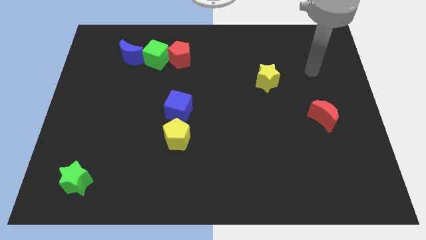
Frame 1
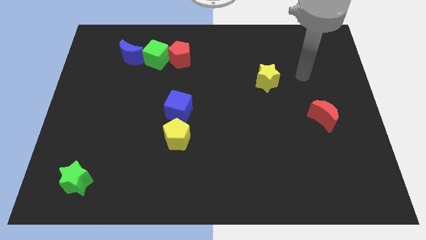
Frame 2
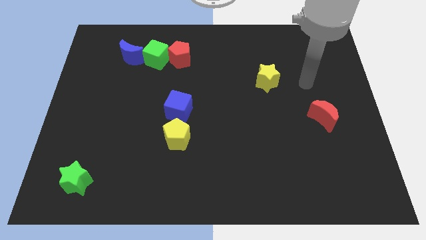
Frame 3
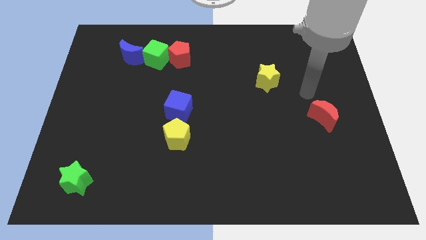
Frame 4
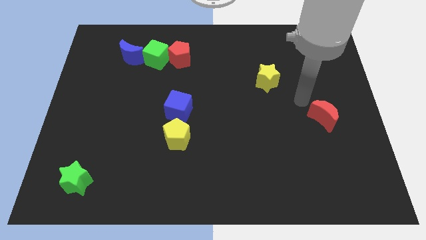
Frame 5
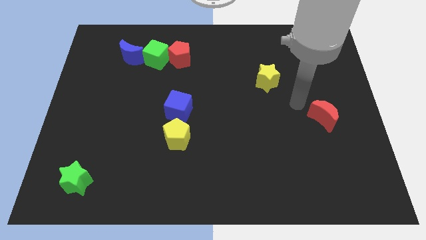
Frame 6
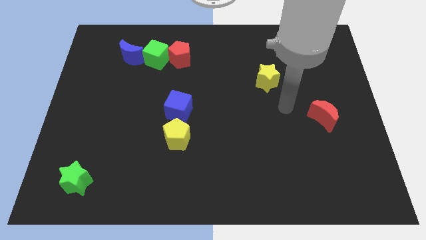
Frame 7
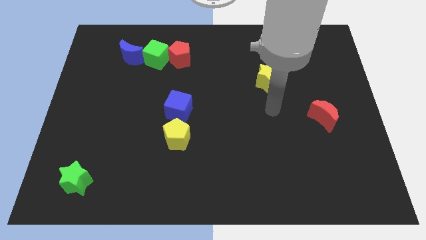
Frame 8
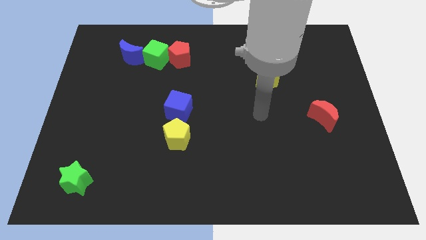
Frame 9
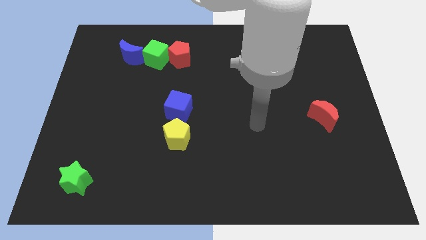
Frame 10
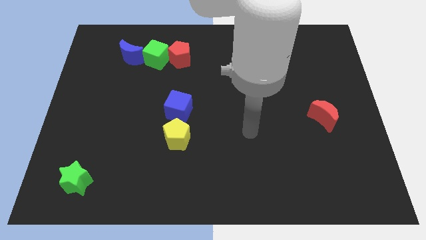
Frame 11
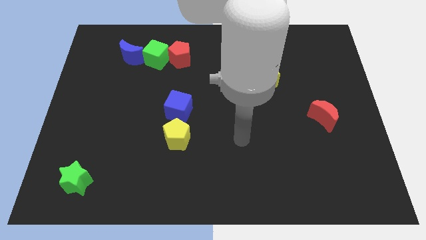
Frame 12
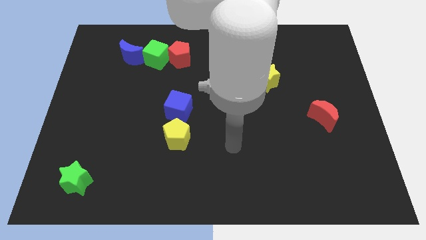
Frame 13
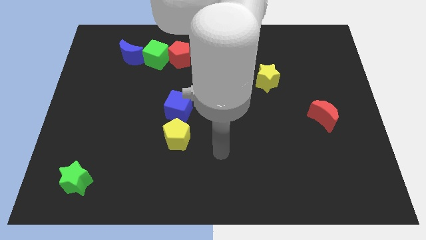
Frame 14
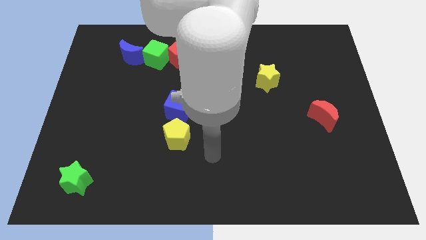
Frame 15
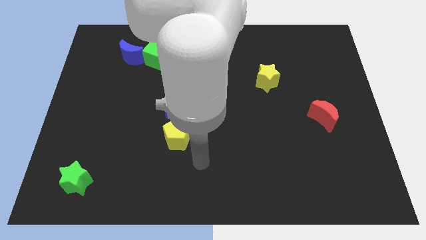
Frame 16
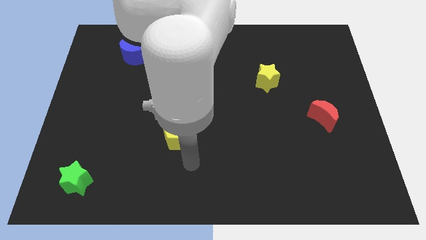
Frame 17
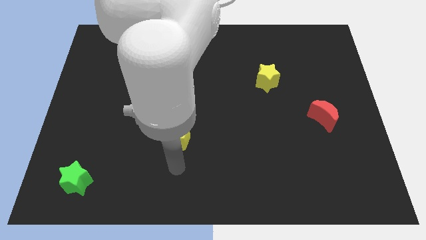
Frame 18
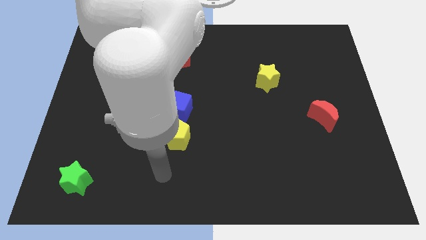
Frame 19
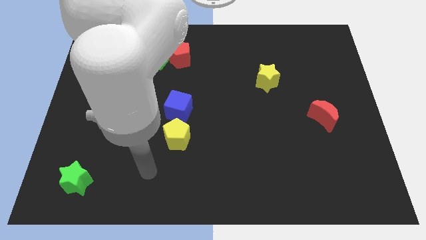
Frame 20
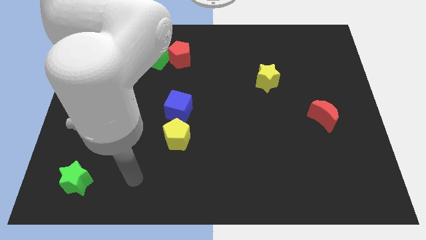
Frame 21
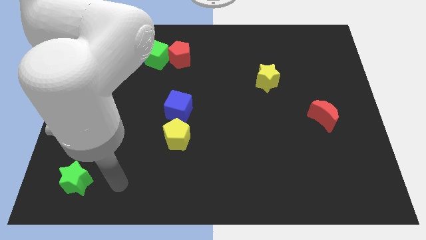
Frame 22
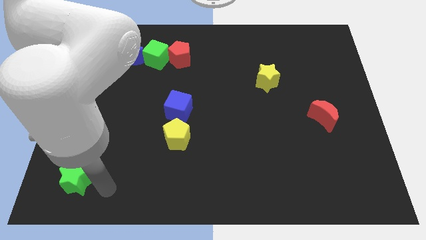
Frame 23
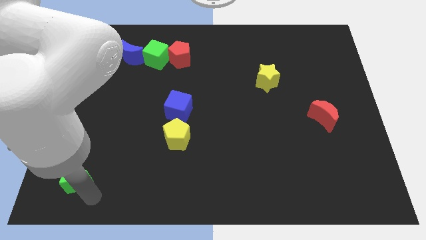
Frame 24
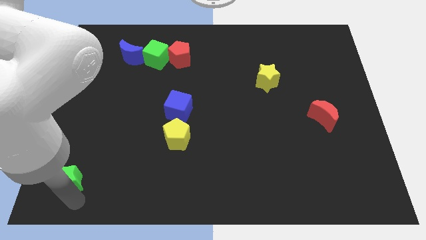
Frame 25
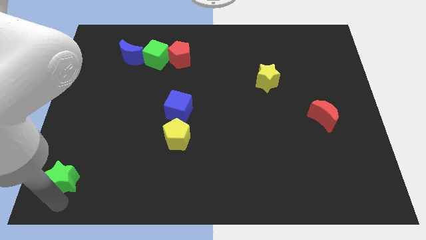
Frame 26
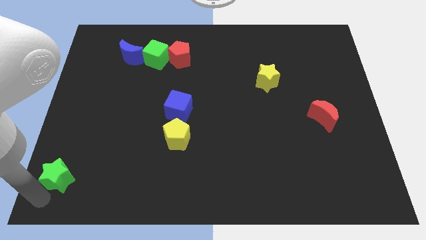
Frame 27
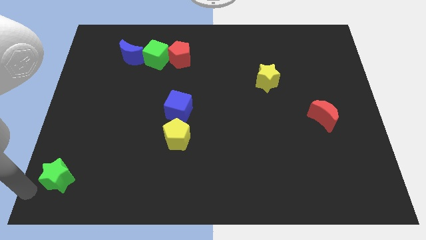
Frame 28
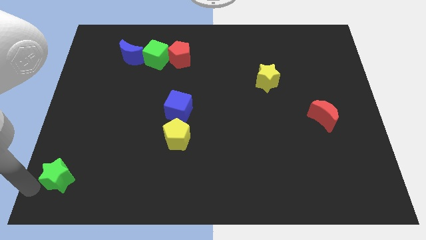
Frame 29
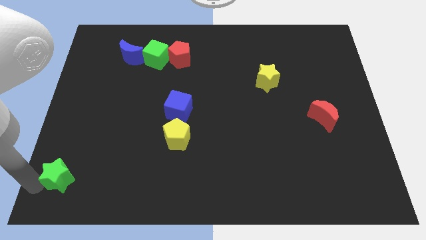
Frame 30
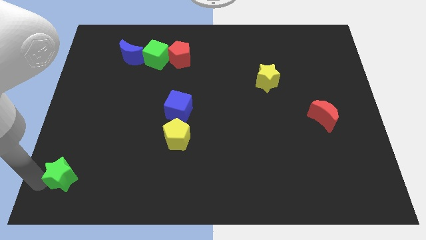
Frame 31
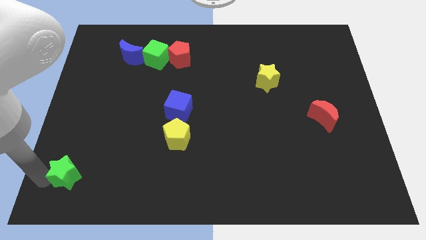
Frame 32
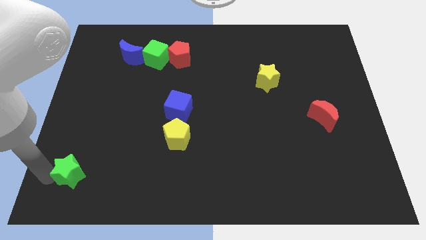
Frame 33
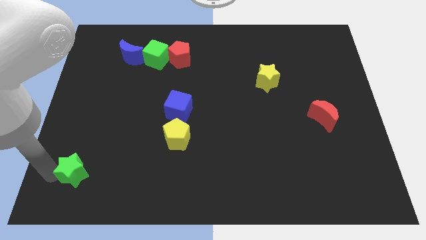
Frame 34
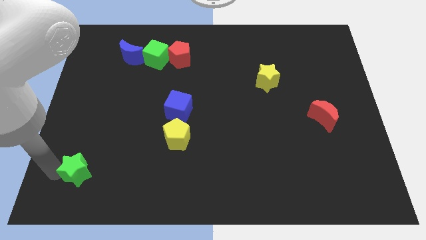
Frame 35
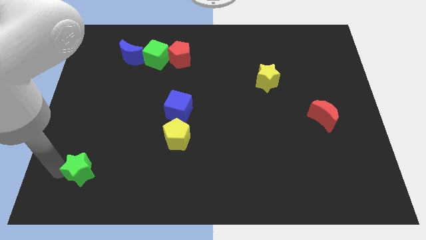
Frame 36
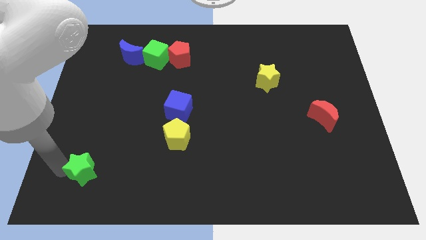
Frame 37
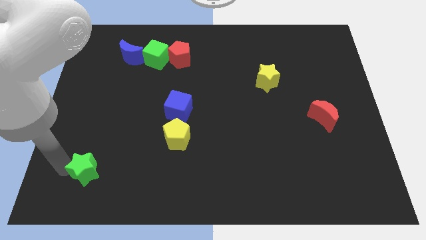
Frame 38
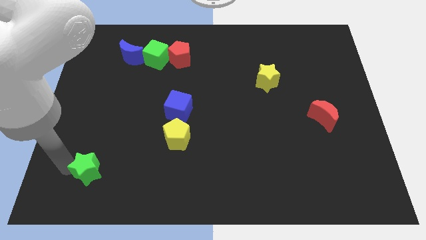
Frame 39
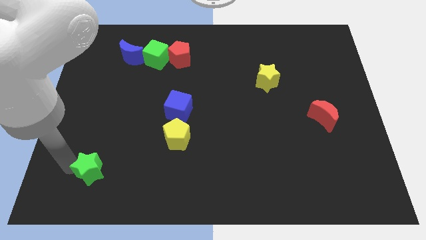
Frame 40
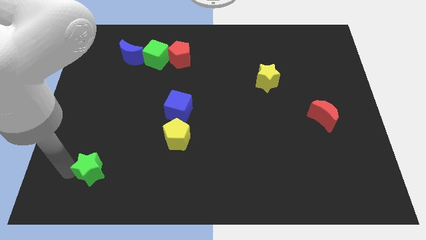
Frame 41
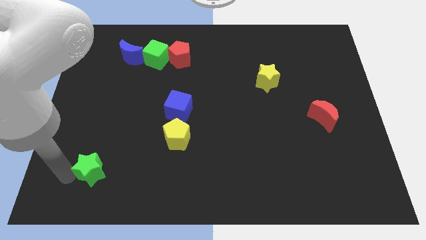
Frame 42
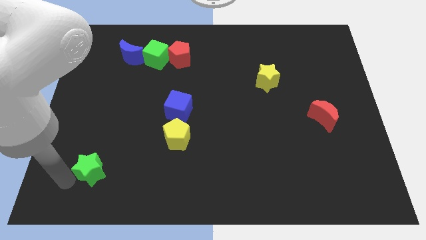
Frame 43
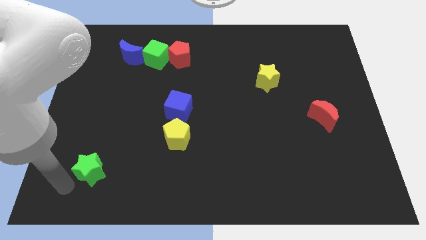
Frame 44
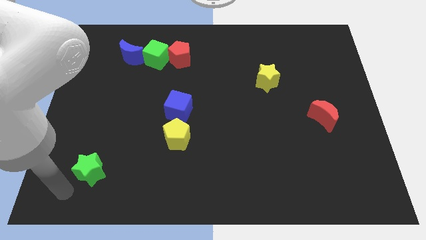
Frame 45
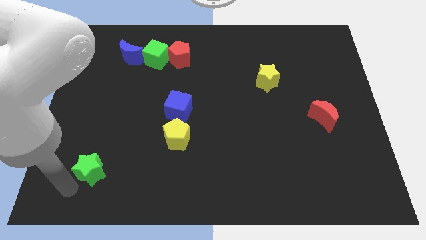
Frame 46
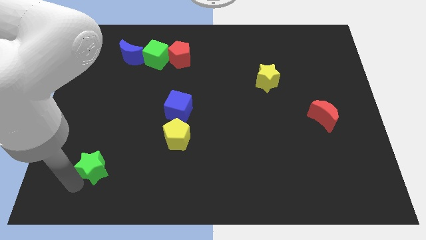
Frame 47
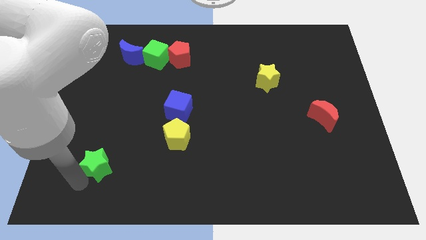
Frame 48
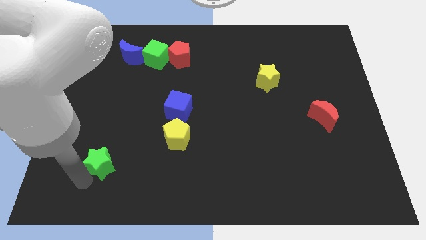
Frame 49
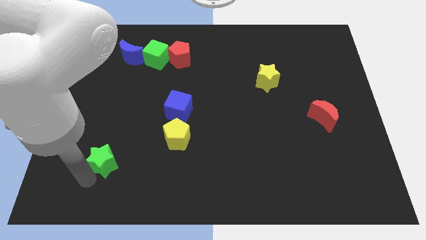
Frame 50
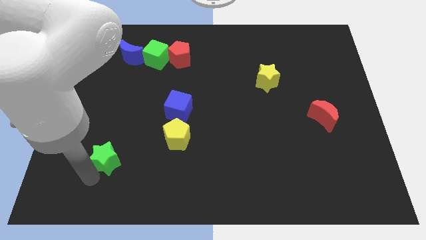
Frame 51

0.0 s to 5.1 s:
slide the green star a bit up and to the right

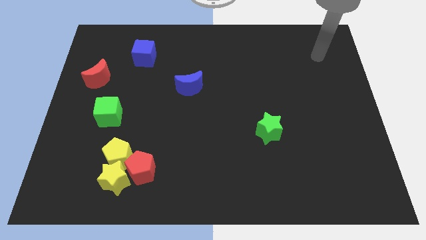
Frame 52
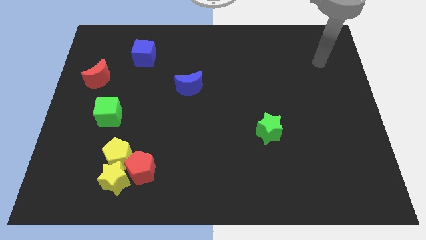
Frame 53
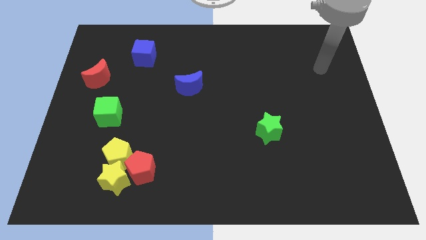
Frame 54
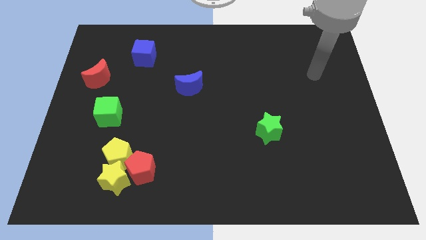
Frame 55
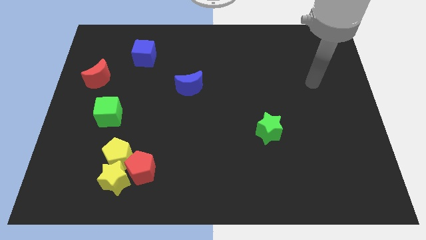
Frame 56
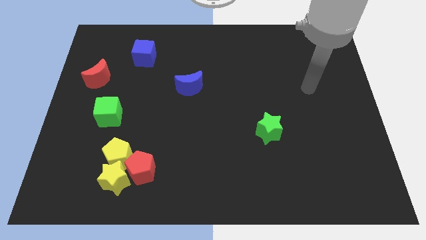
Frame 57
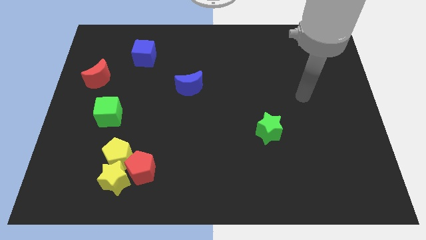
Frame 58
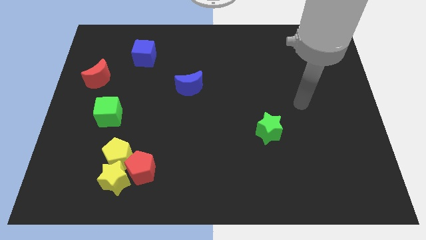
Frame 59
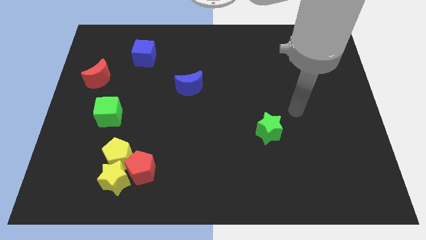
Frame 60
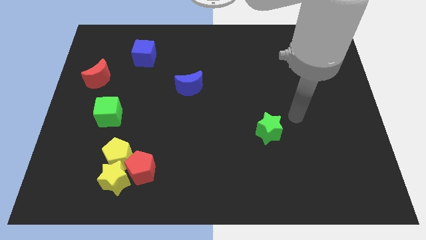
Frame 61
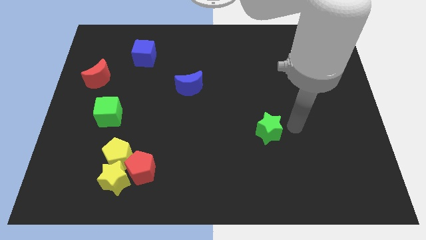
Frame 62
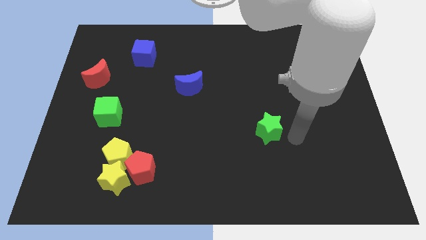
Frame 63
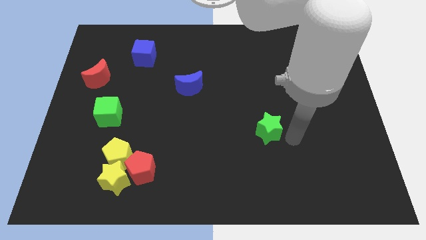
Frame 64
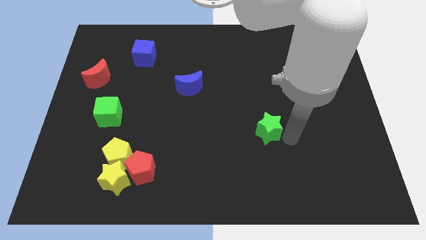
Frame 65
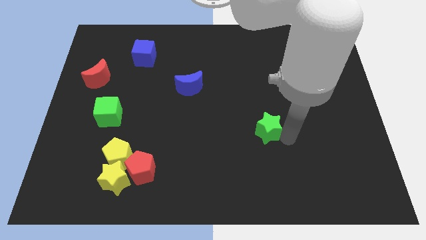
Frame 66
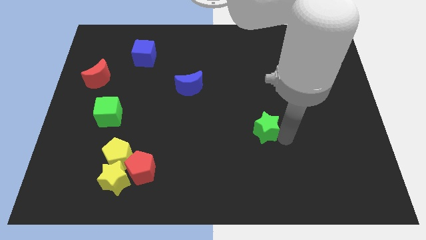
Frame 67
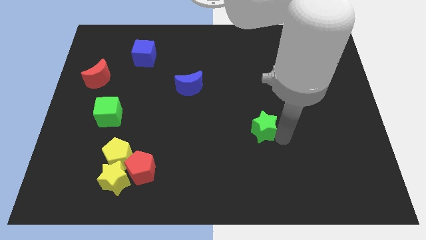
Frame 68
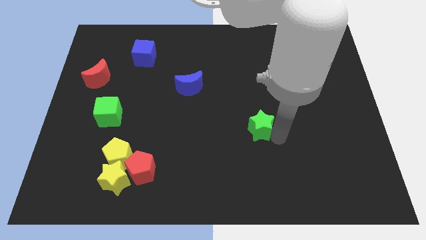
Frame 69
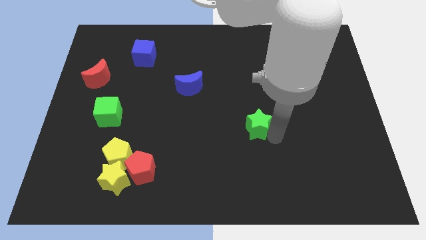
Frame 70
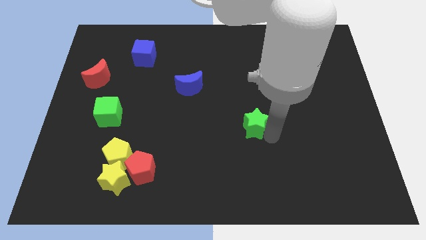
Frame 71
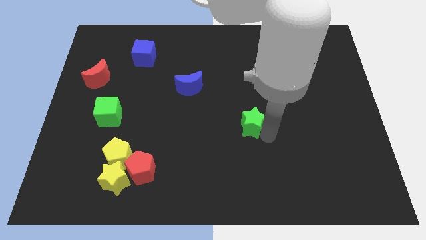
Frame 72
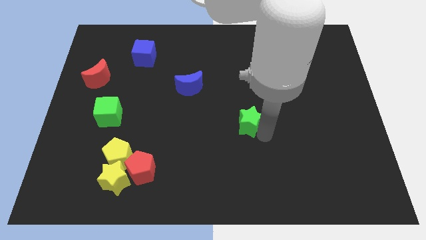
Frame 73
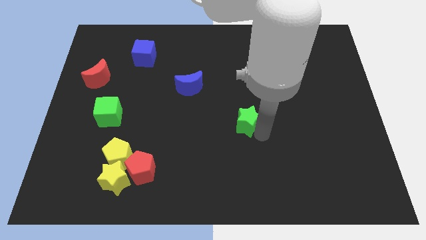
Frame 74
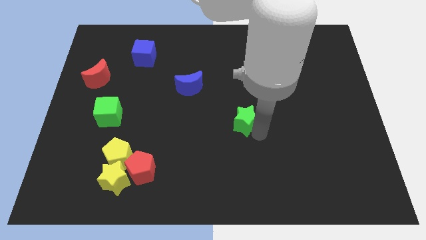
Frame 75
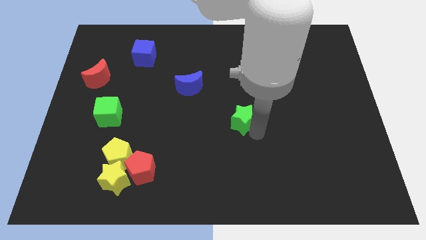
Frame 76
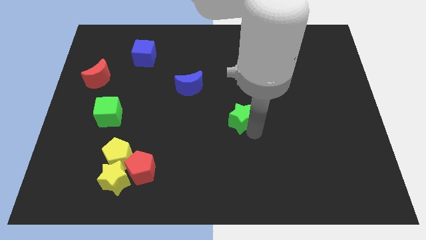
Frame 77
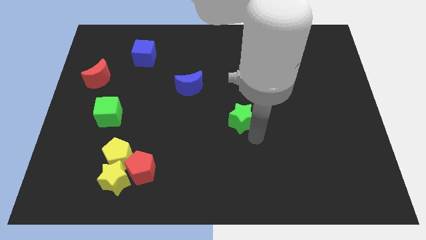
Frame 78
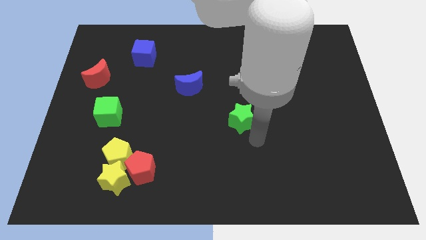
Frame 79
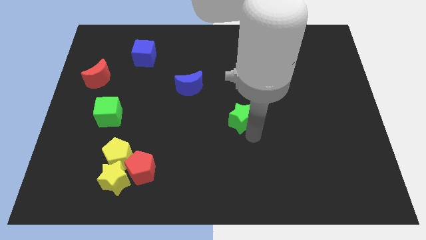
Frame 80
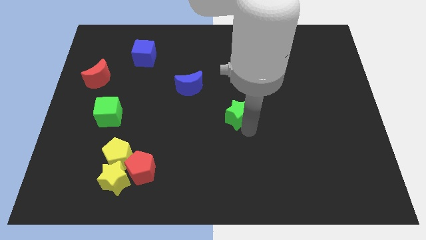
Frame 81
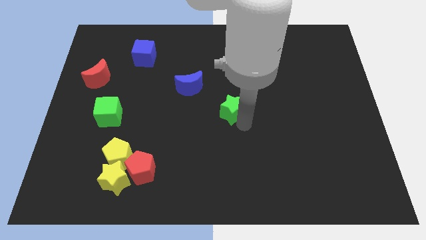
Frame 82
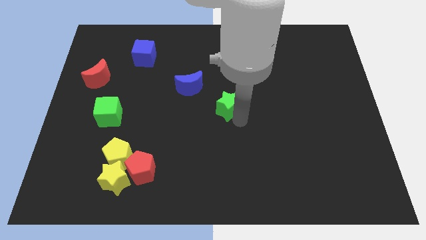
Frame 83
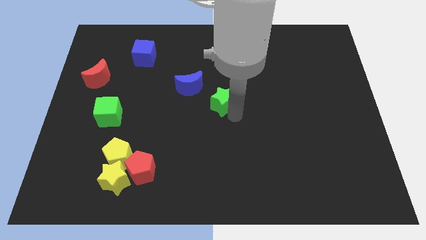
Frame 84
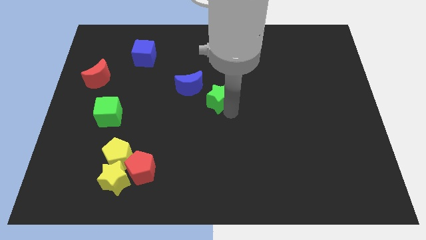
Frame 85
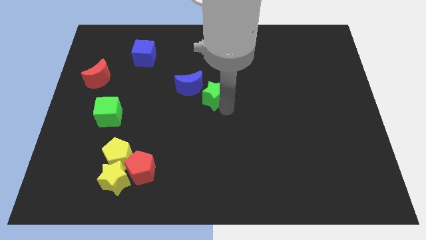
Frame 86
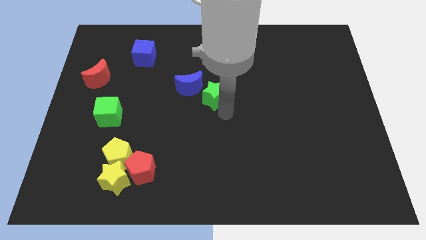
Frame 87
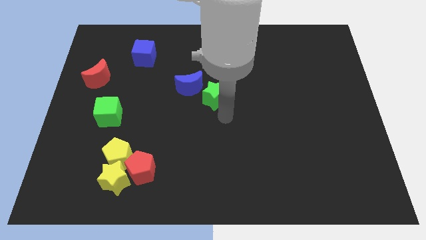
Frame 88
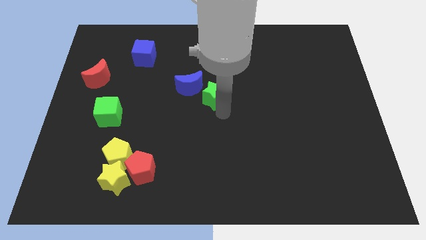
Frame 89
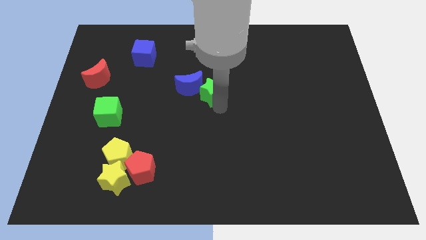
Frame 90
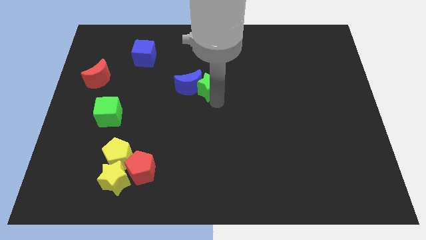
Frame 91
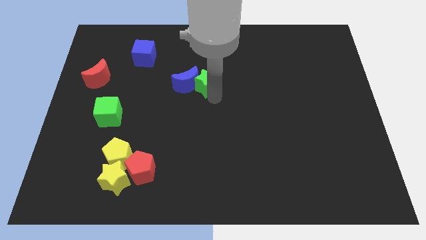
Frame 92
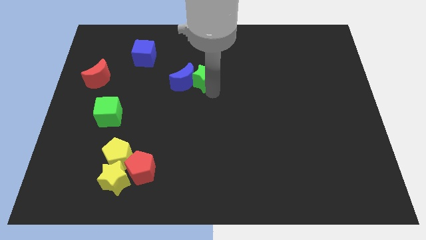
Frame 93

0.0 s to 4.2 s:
move the green star up and then left
